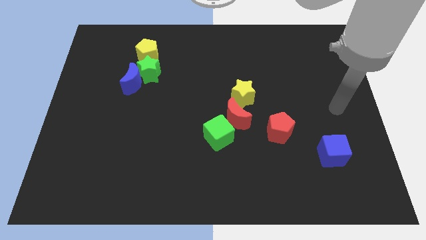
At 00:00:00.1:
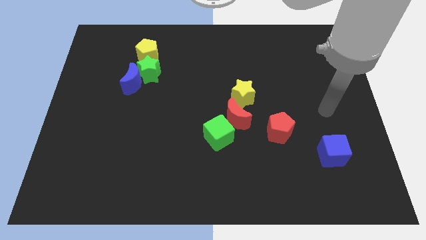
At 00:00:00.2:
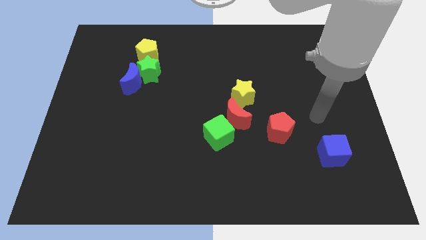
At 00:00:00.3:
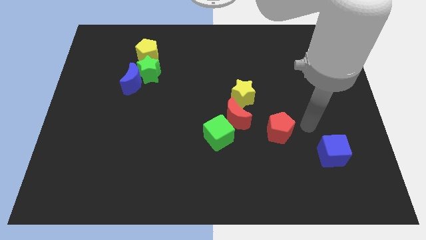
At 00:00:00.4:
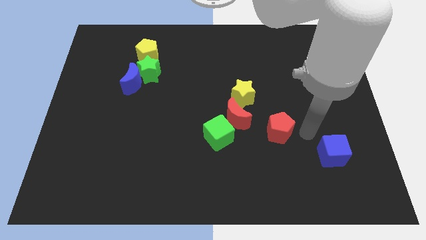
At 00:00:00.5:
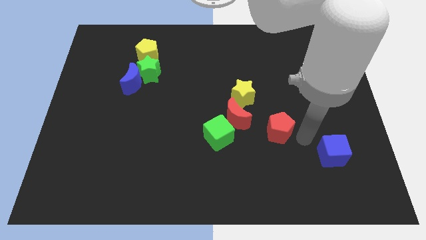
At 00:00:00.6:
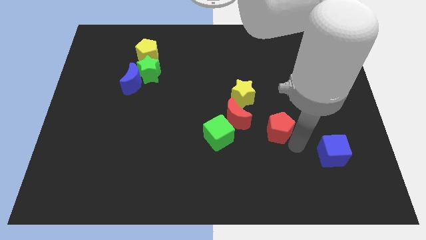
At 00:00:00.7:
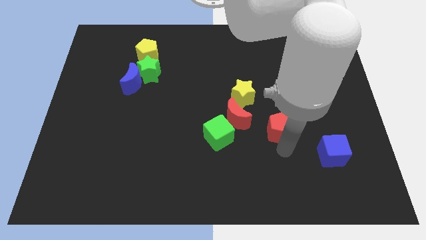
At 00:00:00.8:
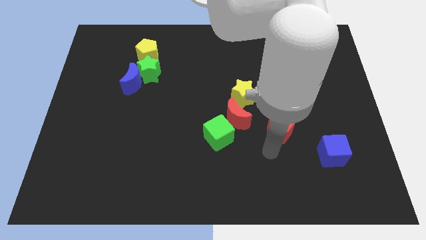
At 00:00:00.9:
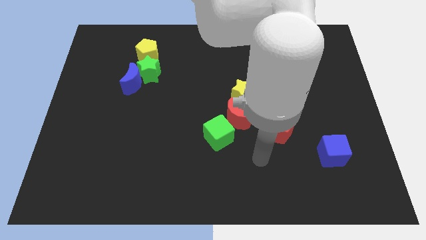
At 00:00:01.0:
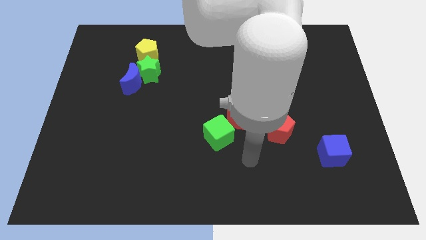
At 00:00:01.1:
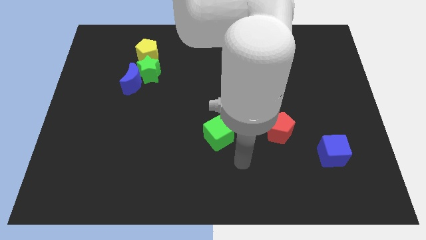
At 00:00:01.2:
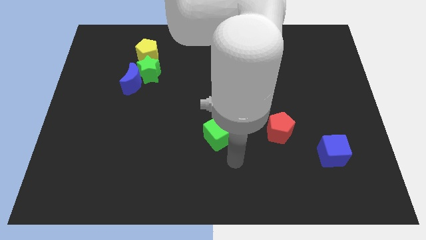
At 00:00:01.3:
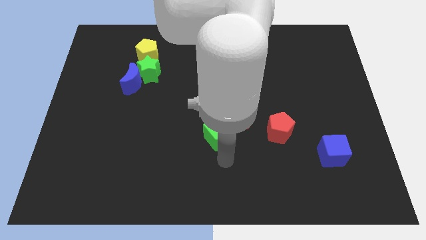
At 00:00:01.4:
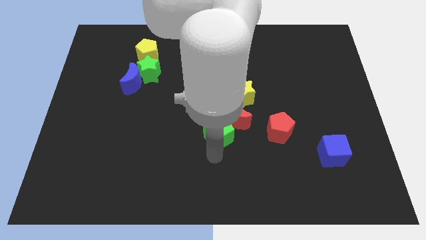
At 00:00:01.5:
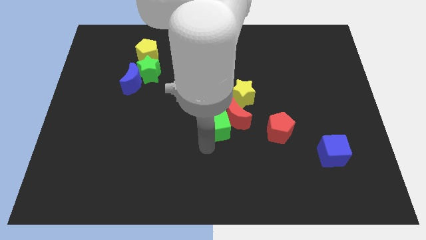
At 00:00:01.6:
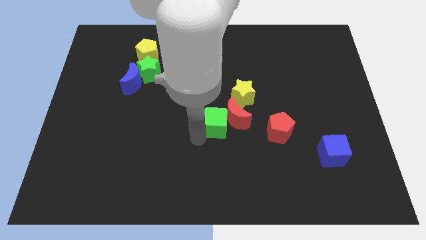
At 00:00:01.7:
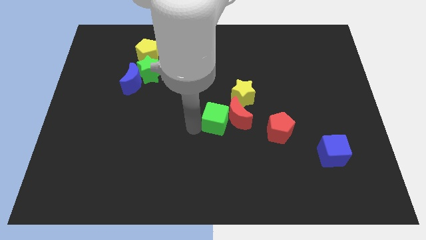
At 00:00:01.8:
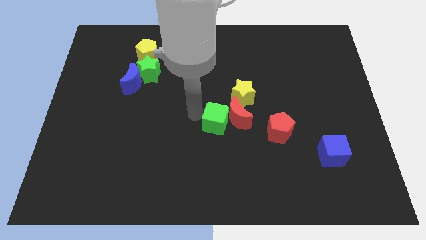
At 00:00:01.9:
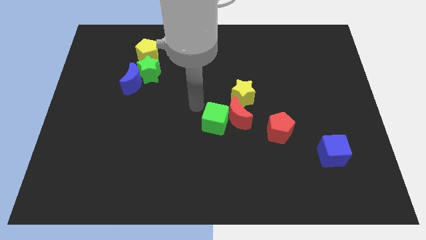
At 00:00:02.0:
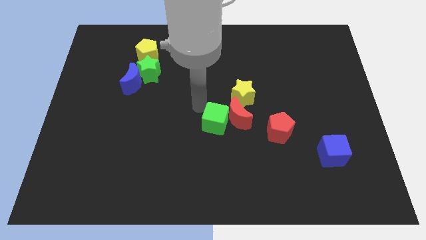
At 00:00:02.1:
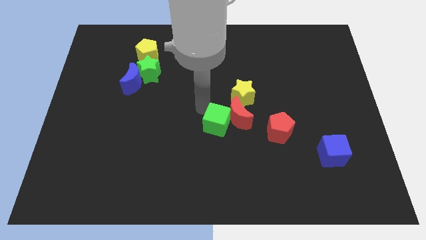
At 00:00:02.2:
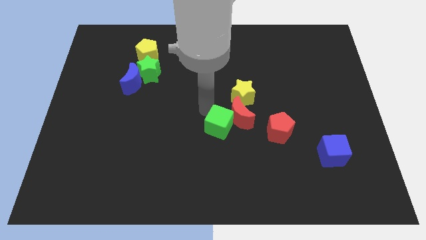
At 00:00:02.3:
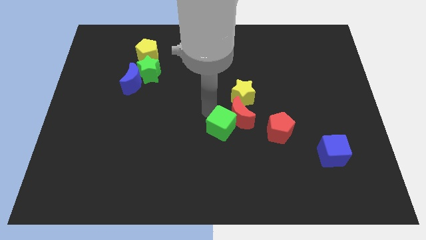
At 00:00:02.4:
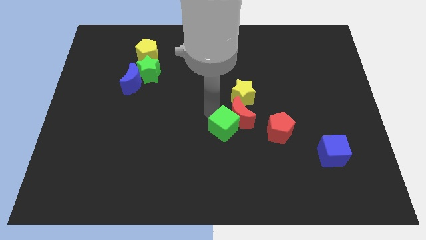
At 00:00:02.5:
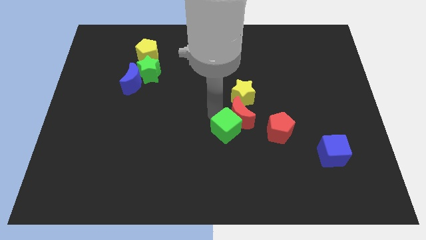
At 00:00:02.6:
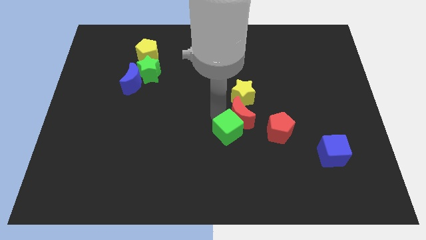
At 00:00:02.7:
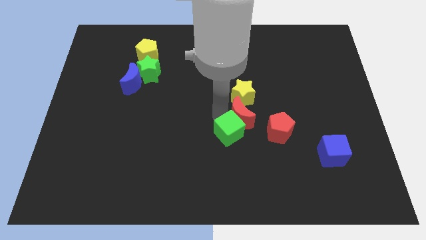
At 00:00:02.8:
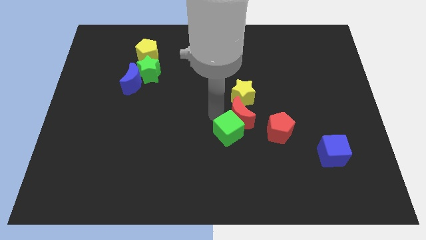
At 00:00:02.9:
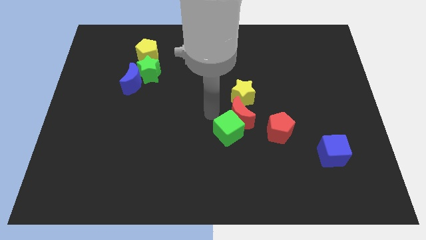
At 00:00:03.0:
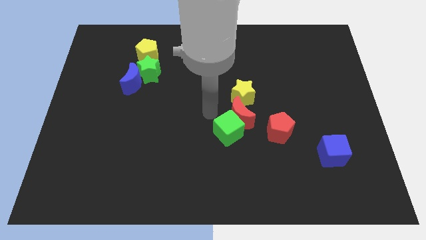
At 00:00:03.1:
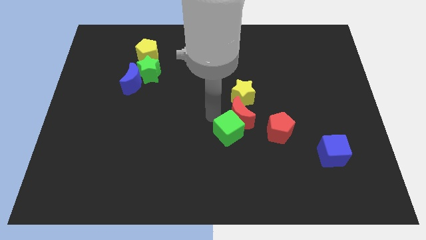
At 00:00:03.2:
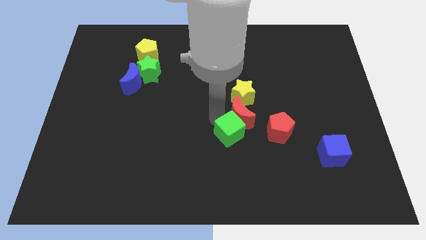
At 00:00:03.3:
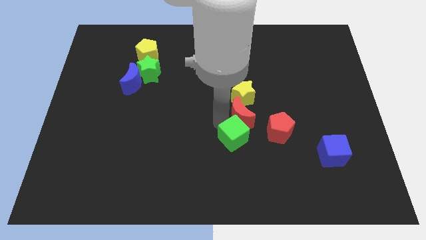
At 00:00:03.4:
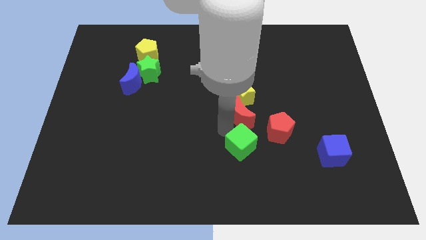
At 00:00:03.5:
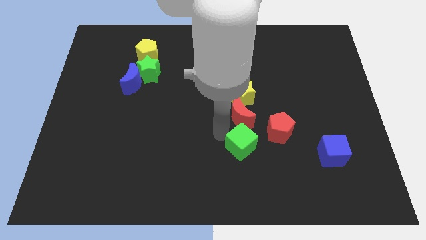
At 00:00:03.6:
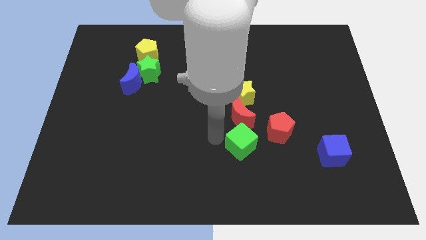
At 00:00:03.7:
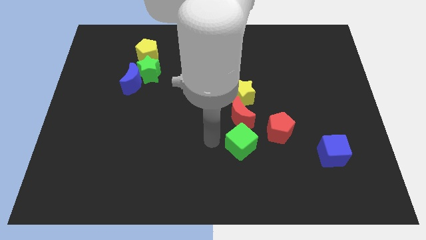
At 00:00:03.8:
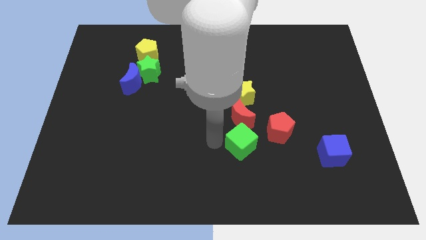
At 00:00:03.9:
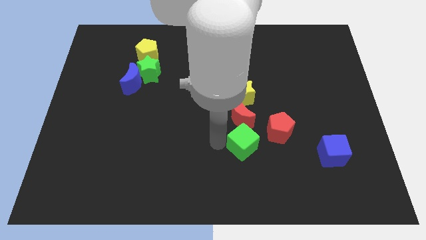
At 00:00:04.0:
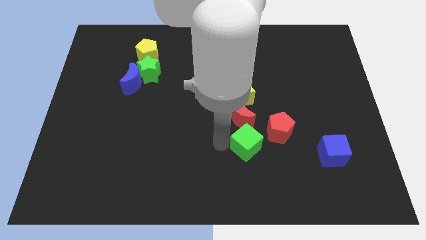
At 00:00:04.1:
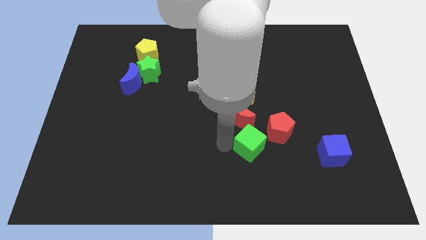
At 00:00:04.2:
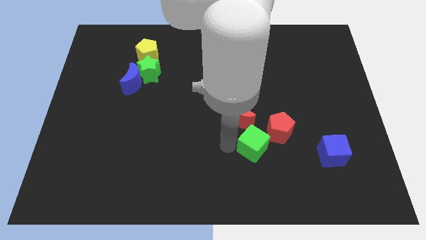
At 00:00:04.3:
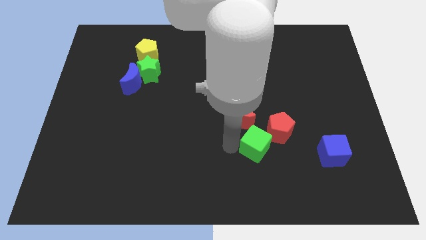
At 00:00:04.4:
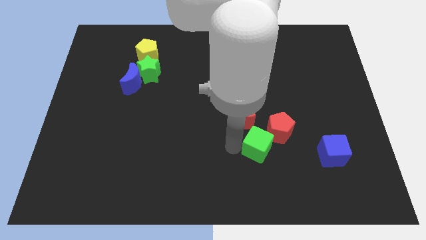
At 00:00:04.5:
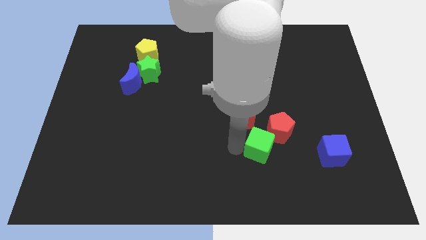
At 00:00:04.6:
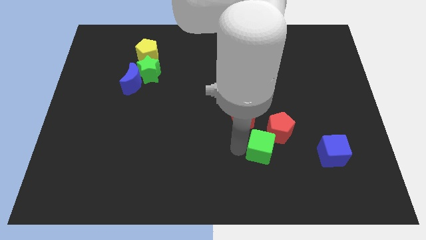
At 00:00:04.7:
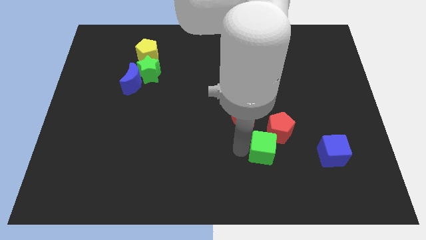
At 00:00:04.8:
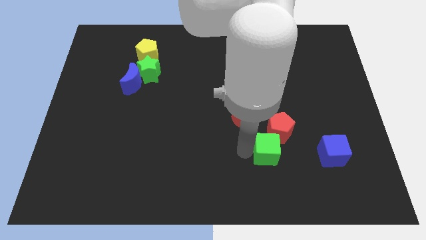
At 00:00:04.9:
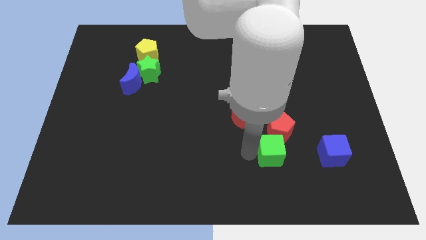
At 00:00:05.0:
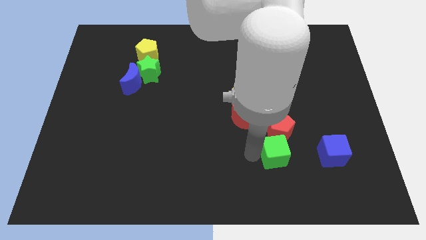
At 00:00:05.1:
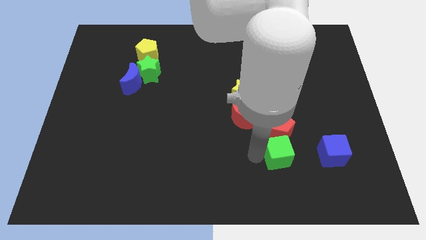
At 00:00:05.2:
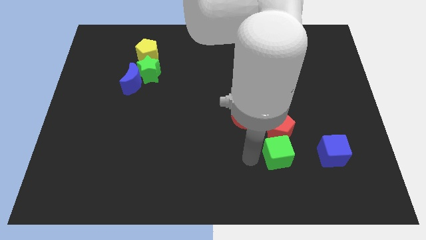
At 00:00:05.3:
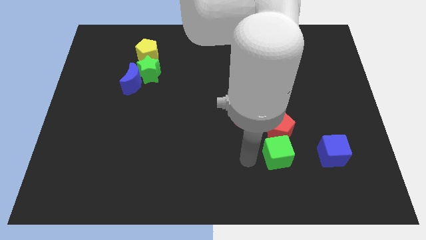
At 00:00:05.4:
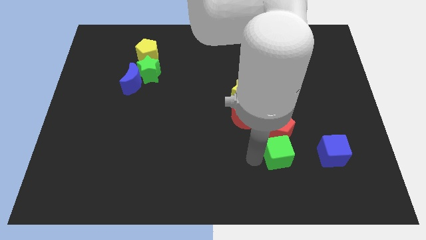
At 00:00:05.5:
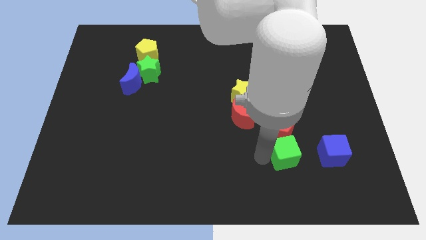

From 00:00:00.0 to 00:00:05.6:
move the green cube diagonally down and to the right of the red pentagon

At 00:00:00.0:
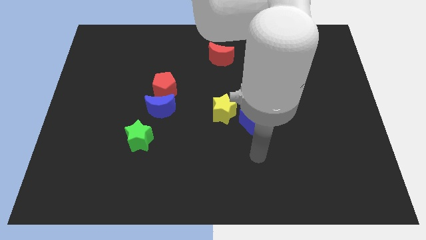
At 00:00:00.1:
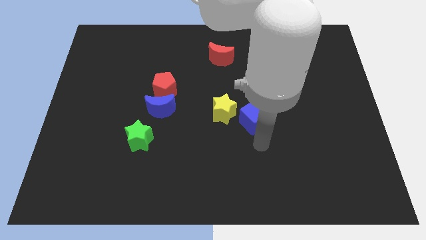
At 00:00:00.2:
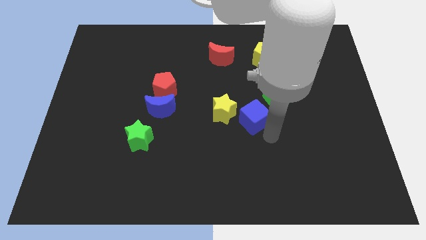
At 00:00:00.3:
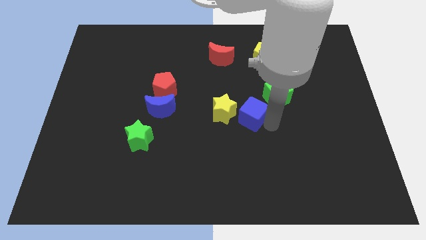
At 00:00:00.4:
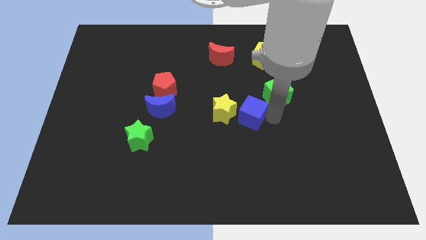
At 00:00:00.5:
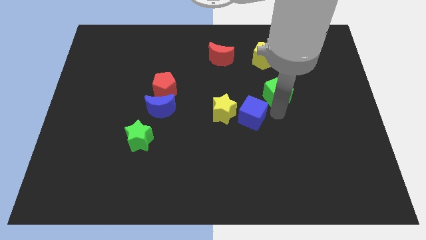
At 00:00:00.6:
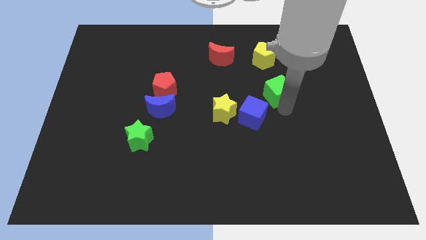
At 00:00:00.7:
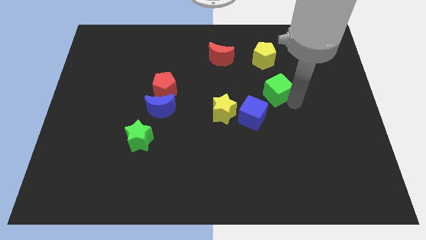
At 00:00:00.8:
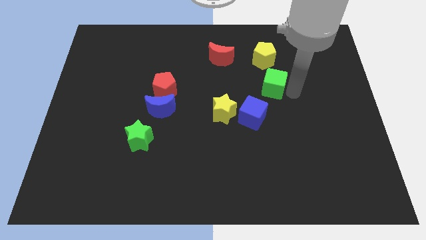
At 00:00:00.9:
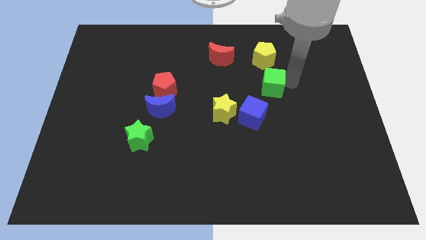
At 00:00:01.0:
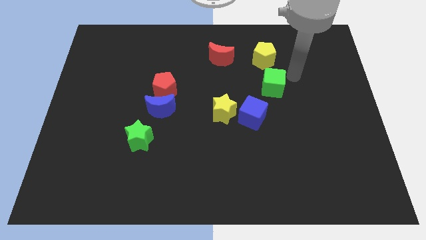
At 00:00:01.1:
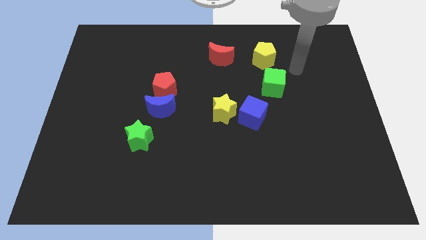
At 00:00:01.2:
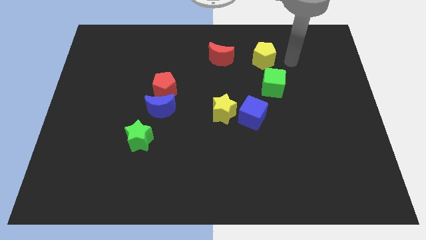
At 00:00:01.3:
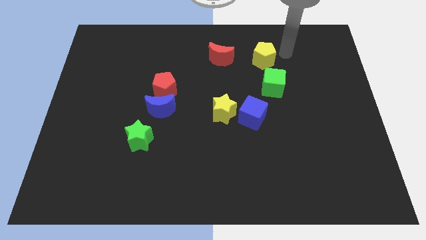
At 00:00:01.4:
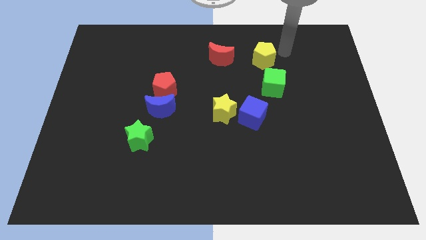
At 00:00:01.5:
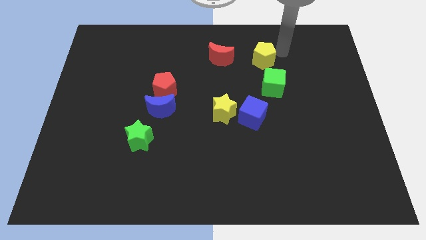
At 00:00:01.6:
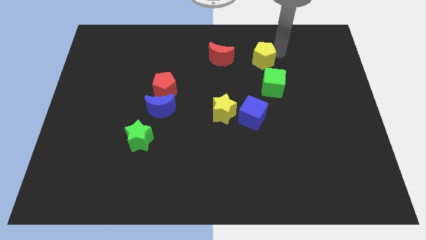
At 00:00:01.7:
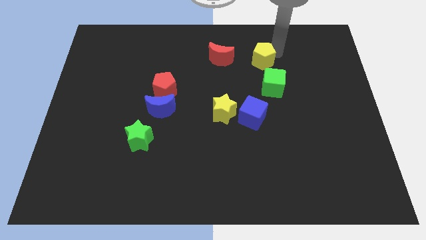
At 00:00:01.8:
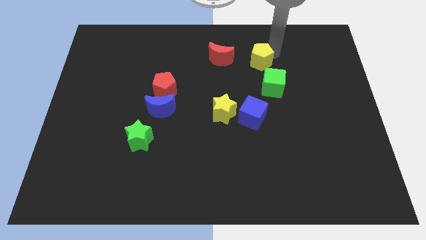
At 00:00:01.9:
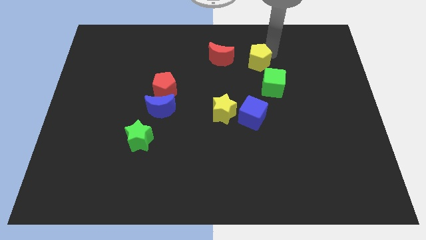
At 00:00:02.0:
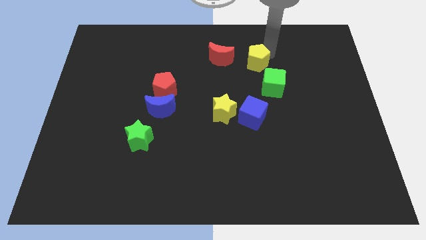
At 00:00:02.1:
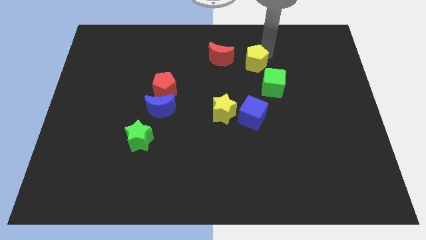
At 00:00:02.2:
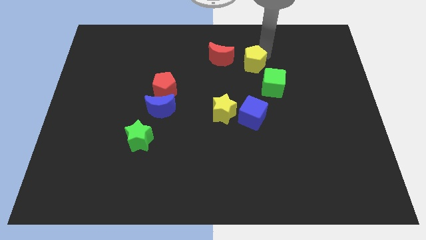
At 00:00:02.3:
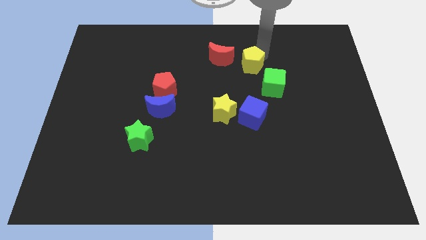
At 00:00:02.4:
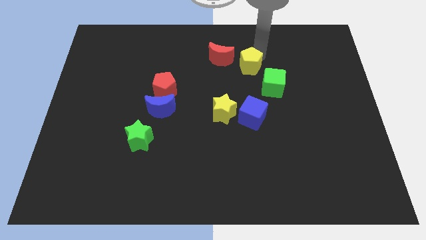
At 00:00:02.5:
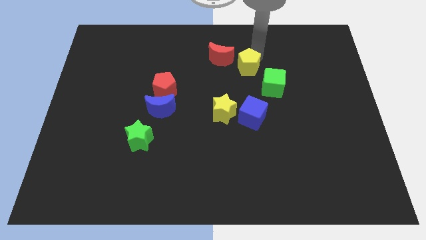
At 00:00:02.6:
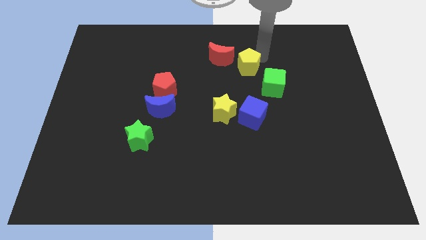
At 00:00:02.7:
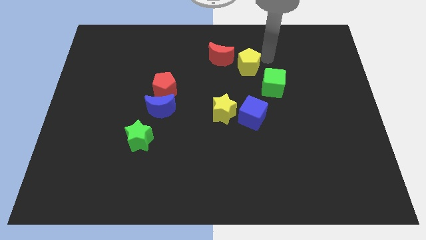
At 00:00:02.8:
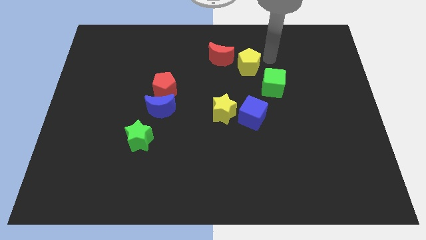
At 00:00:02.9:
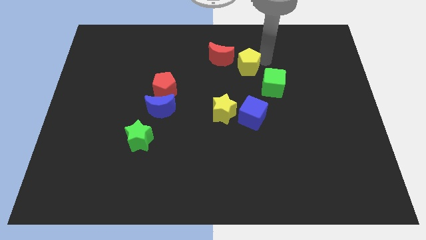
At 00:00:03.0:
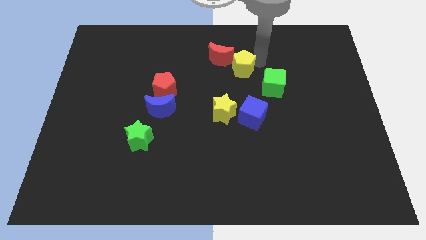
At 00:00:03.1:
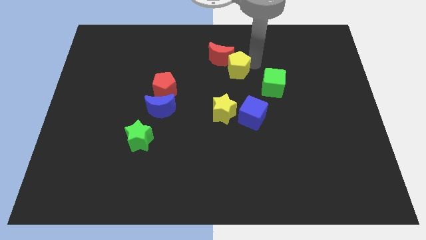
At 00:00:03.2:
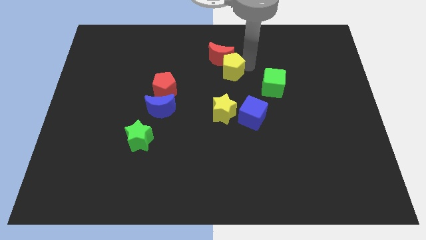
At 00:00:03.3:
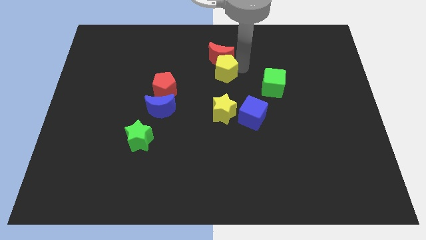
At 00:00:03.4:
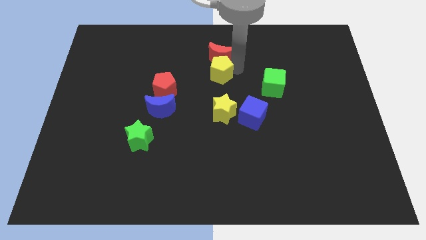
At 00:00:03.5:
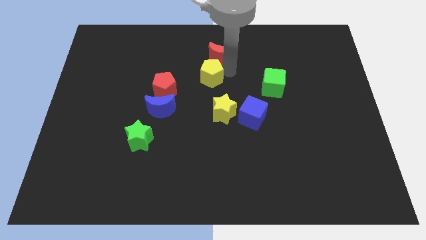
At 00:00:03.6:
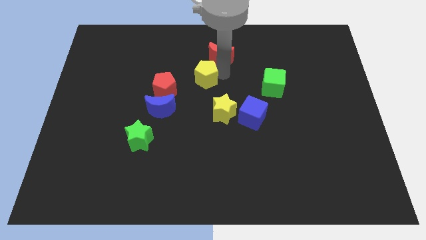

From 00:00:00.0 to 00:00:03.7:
slide the yellow pentagon diagonally up and to the right of the red pentagon
